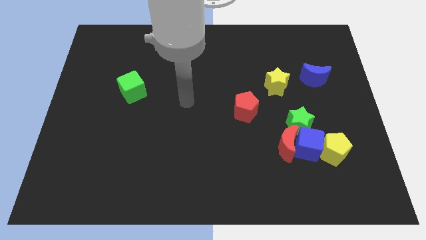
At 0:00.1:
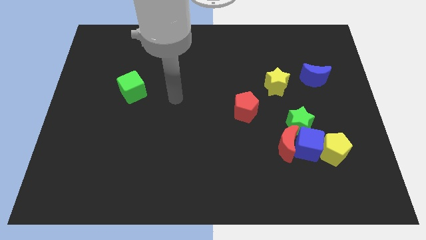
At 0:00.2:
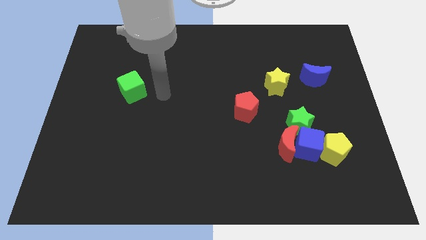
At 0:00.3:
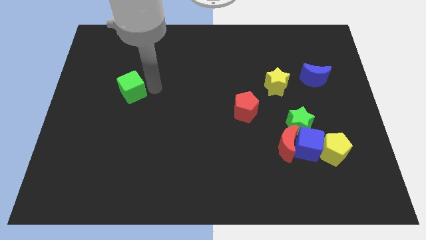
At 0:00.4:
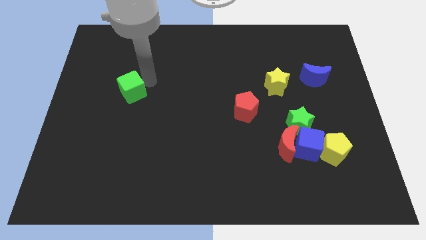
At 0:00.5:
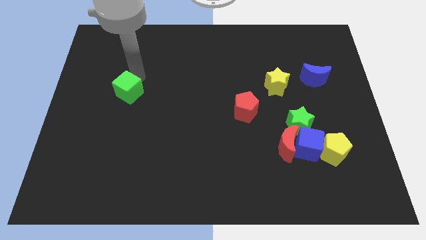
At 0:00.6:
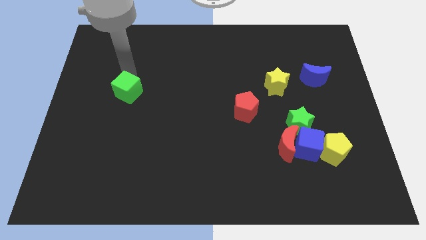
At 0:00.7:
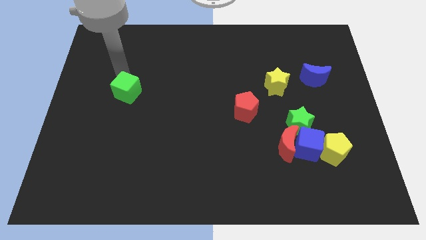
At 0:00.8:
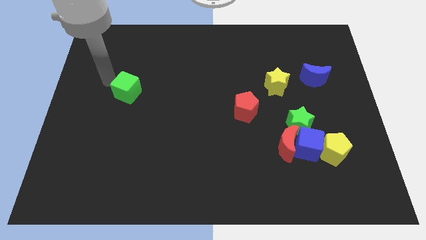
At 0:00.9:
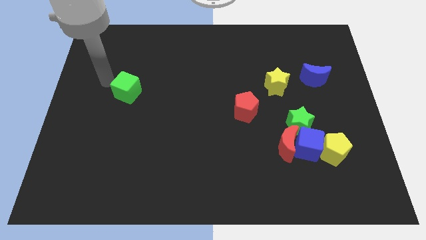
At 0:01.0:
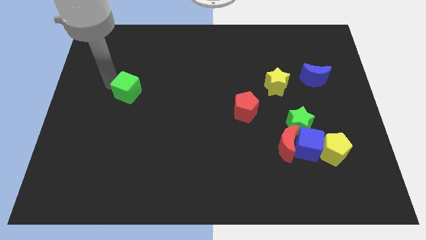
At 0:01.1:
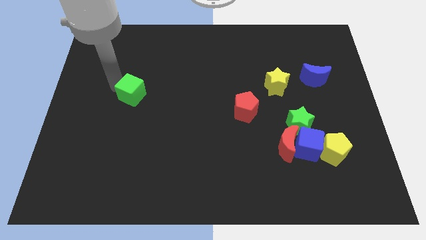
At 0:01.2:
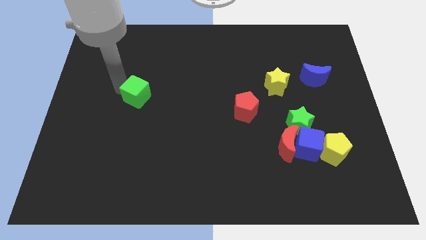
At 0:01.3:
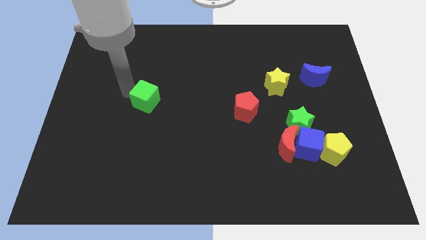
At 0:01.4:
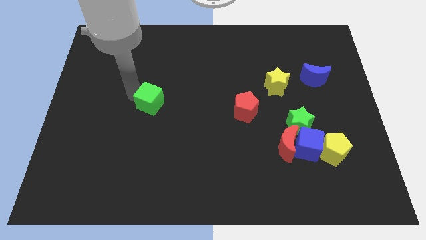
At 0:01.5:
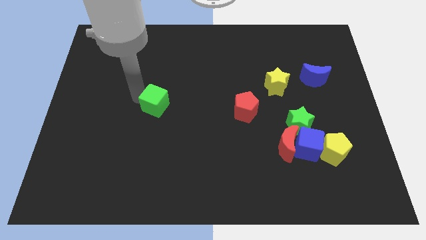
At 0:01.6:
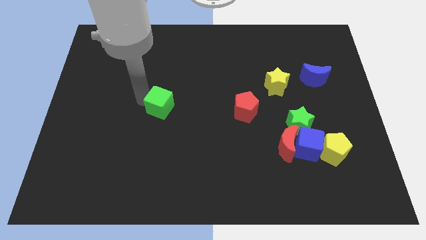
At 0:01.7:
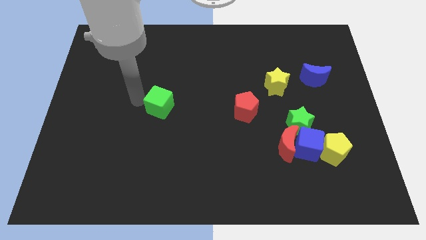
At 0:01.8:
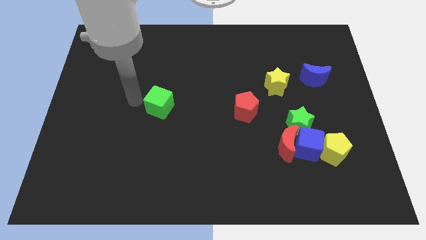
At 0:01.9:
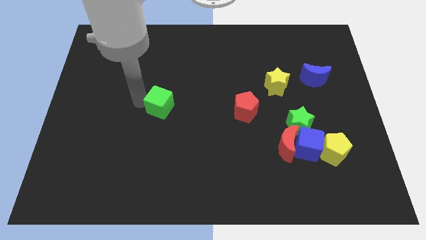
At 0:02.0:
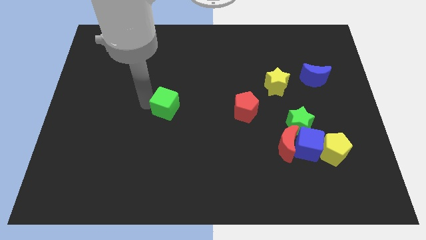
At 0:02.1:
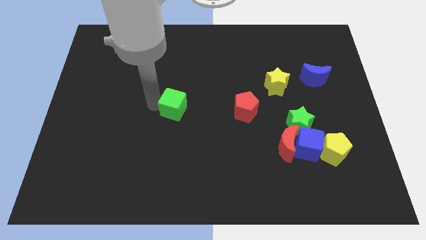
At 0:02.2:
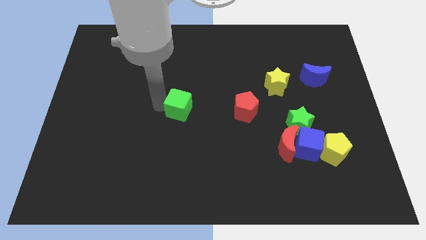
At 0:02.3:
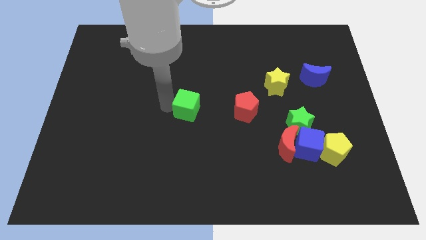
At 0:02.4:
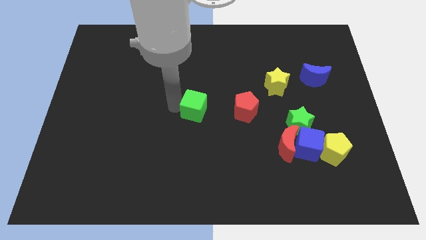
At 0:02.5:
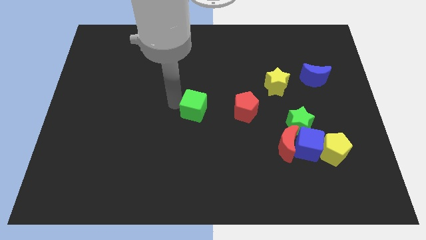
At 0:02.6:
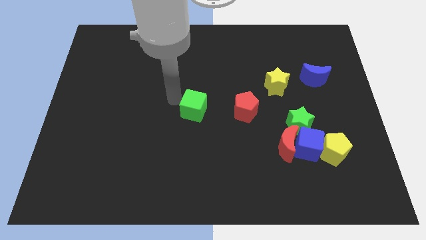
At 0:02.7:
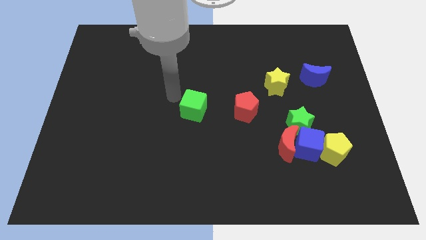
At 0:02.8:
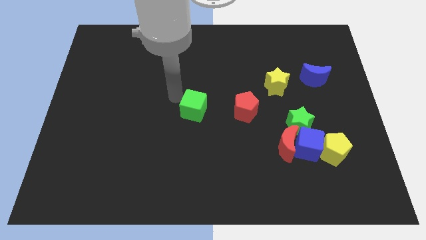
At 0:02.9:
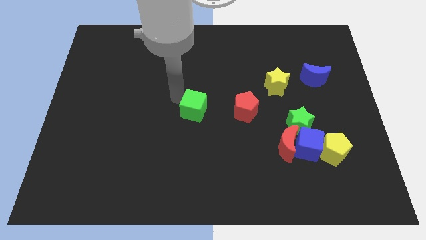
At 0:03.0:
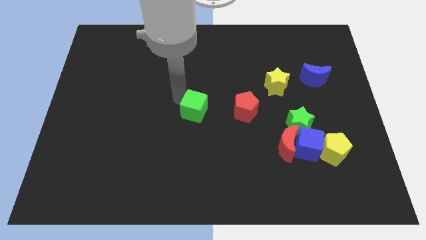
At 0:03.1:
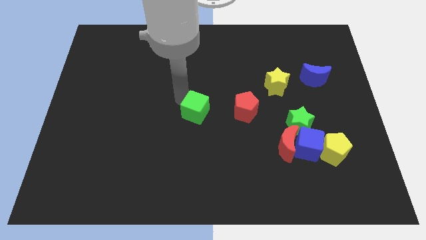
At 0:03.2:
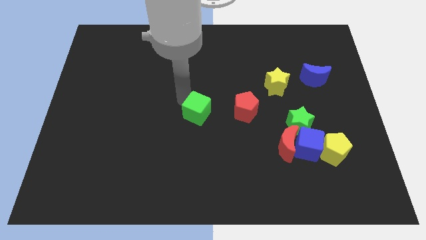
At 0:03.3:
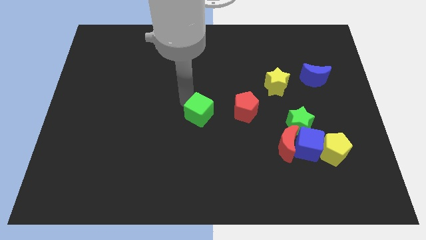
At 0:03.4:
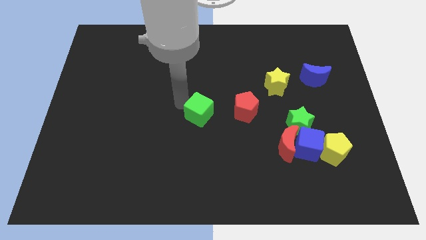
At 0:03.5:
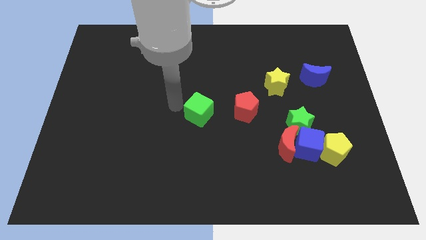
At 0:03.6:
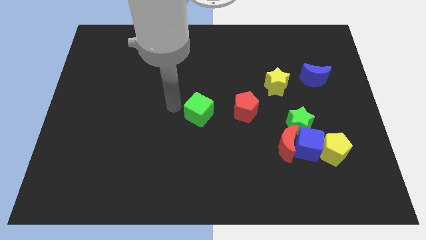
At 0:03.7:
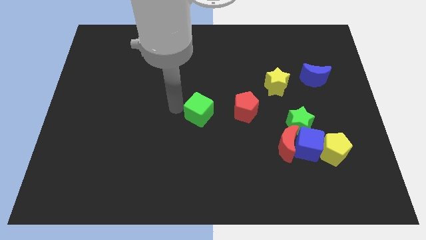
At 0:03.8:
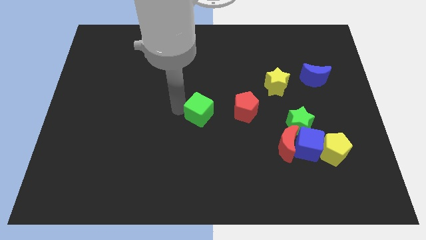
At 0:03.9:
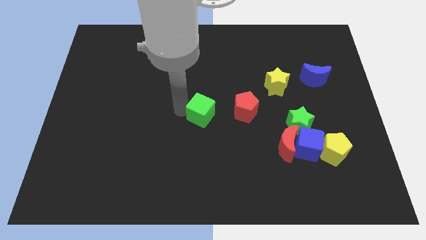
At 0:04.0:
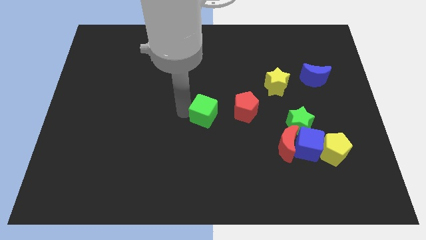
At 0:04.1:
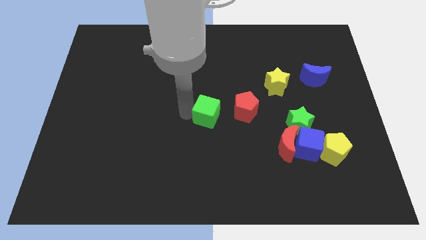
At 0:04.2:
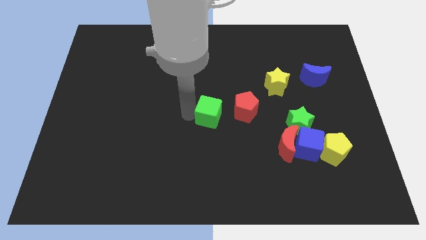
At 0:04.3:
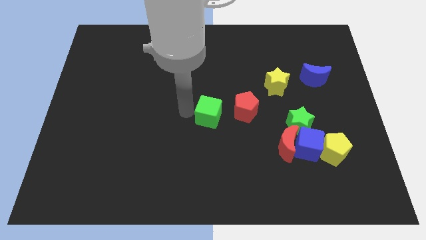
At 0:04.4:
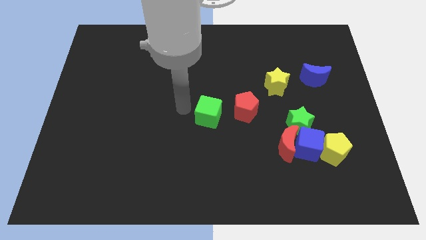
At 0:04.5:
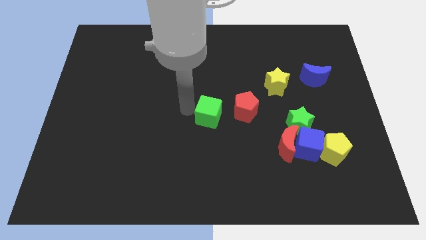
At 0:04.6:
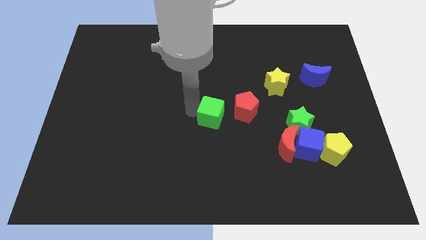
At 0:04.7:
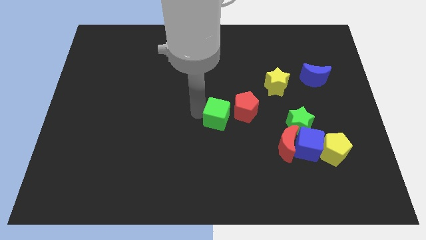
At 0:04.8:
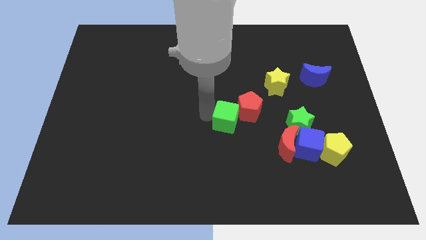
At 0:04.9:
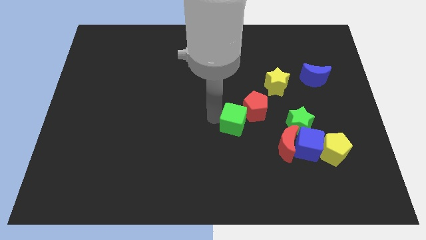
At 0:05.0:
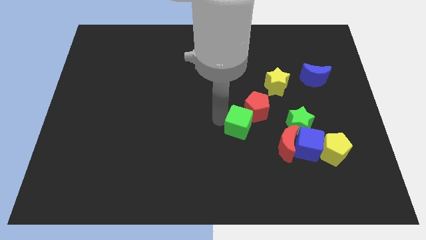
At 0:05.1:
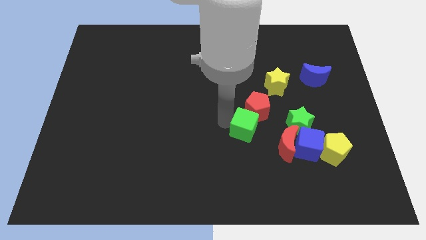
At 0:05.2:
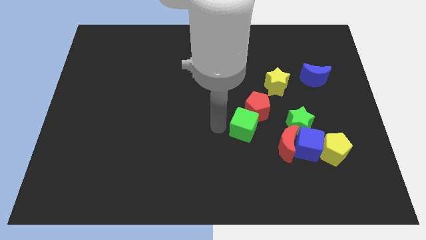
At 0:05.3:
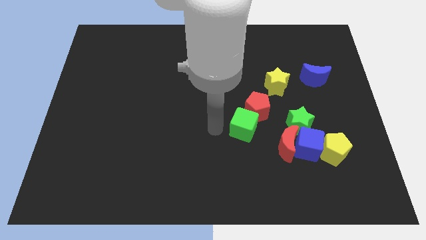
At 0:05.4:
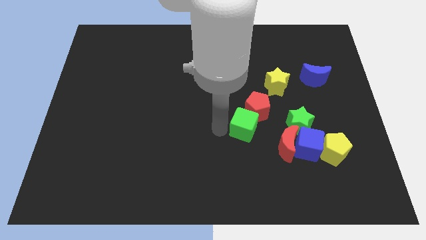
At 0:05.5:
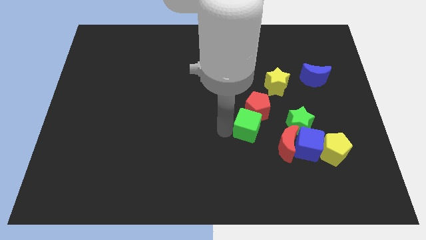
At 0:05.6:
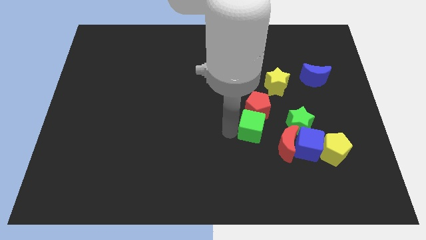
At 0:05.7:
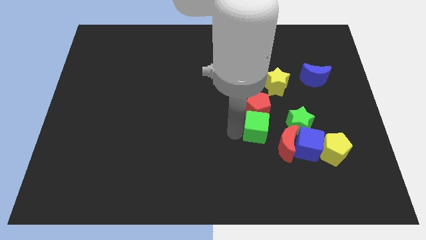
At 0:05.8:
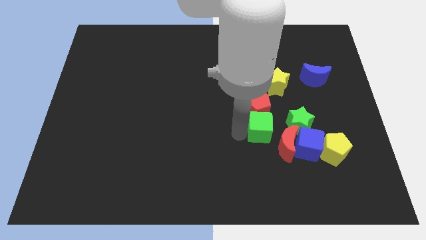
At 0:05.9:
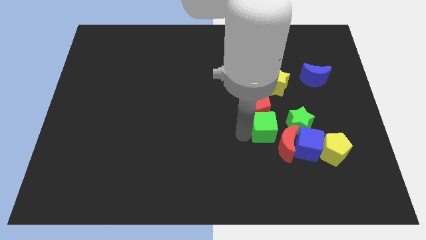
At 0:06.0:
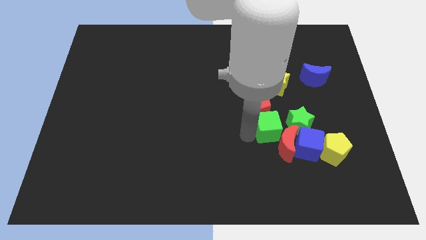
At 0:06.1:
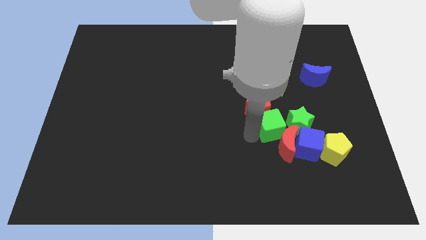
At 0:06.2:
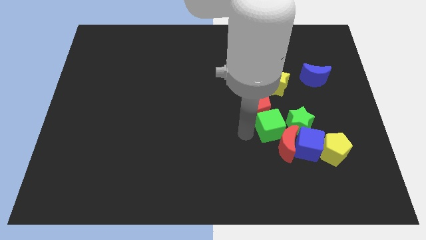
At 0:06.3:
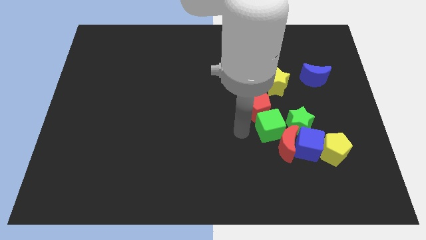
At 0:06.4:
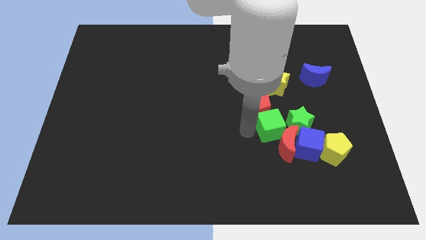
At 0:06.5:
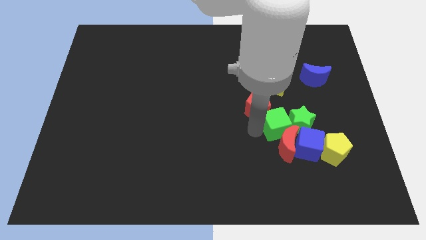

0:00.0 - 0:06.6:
move the green cube to the green star

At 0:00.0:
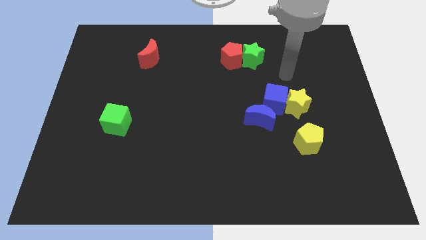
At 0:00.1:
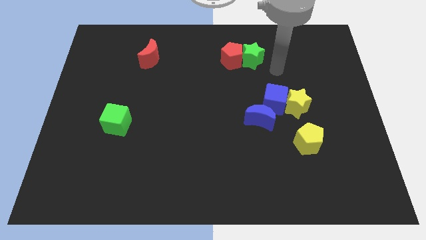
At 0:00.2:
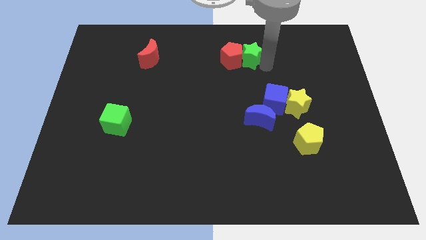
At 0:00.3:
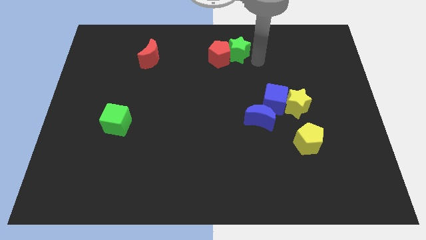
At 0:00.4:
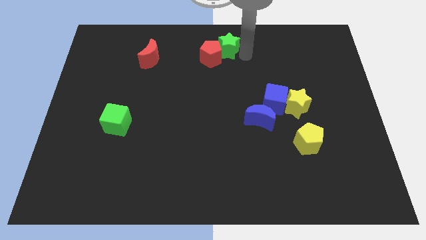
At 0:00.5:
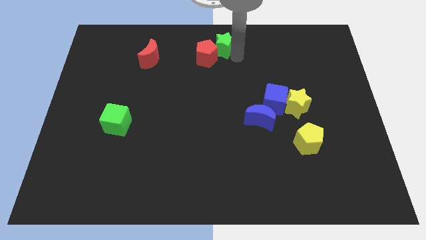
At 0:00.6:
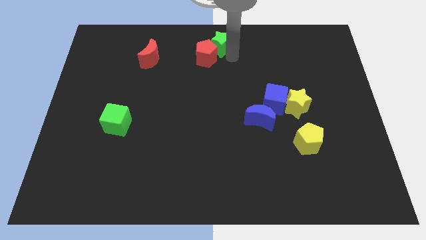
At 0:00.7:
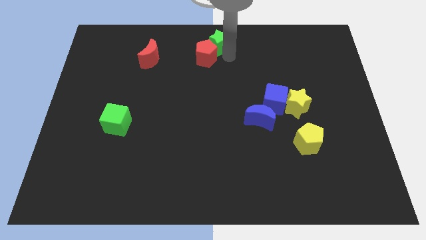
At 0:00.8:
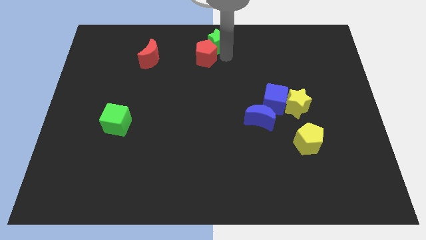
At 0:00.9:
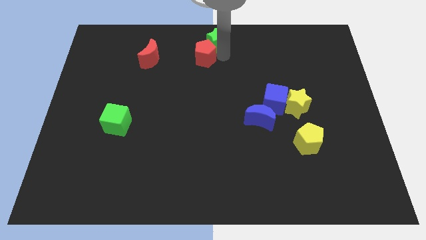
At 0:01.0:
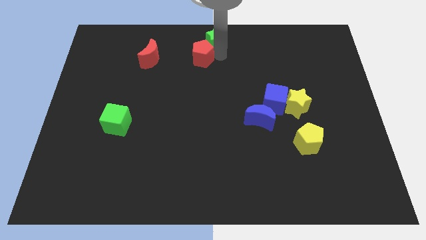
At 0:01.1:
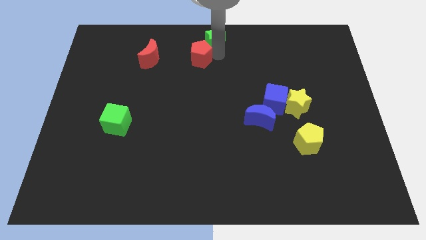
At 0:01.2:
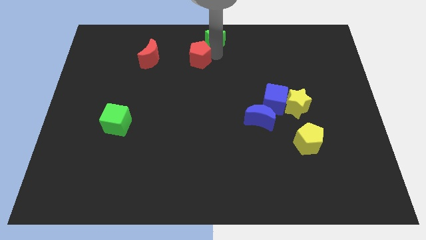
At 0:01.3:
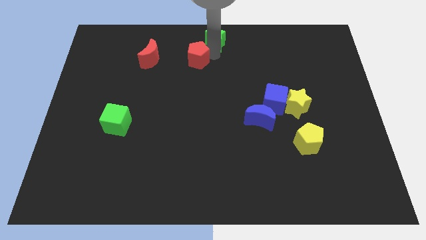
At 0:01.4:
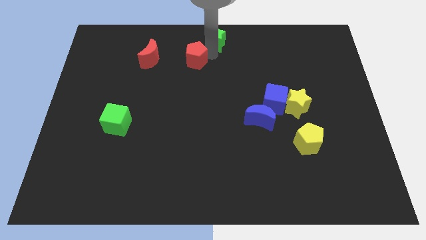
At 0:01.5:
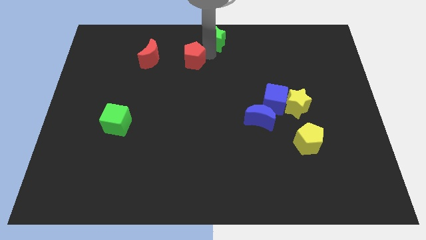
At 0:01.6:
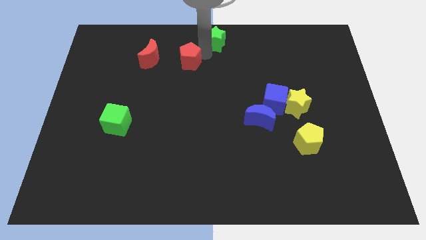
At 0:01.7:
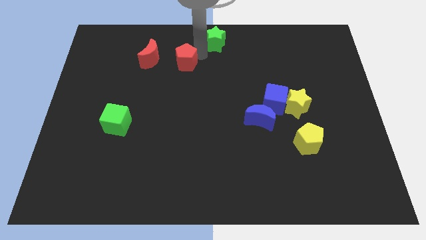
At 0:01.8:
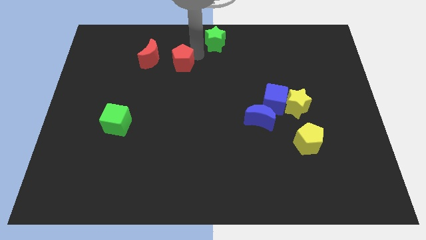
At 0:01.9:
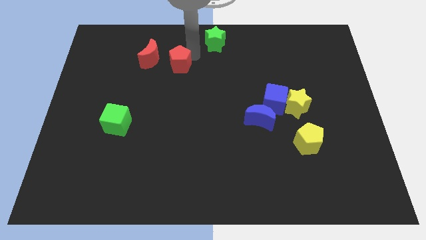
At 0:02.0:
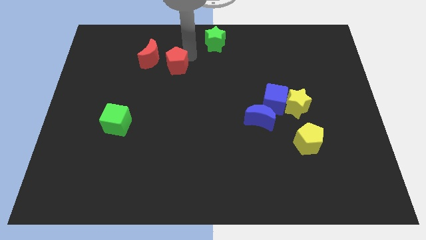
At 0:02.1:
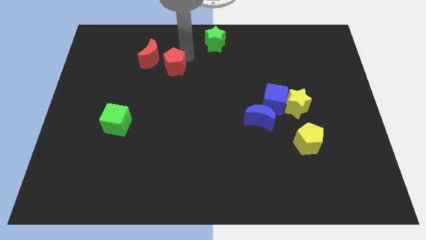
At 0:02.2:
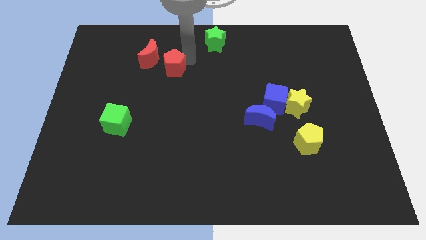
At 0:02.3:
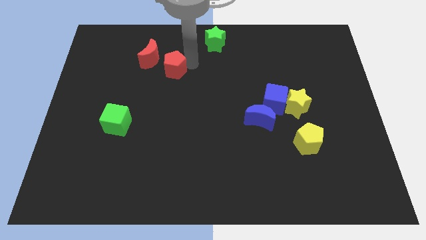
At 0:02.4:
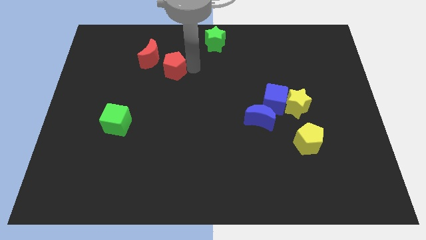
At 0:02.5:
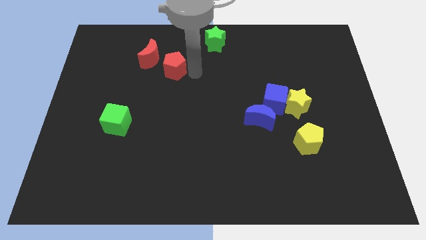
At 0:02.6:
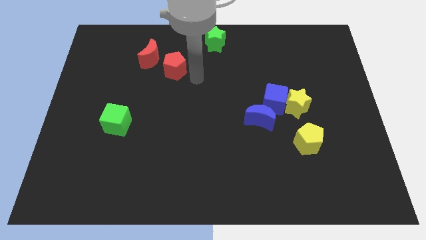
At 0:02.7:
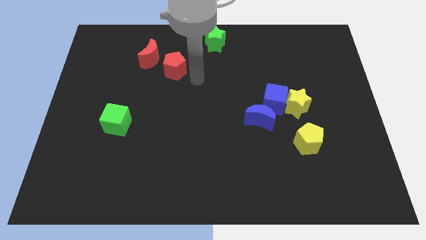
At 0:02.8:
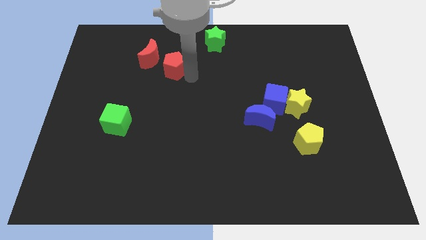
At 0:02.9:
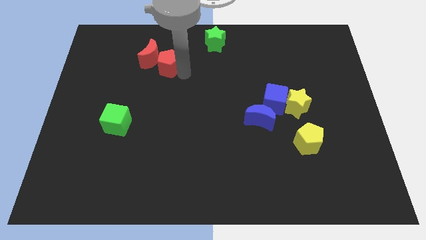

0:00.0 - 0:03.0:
move the red pentagon towards the red moon
